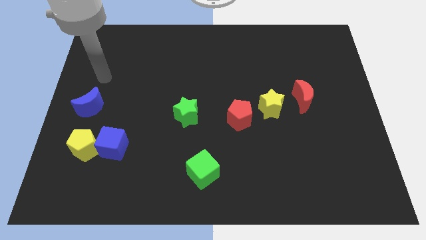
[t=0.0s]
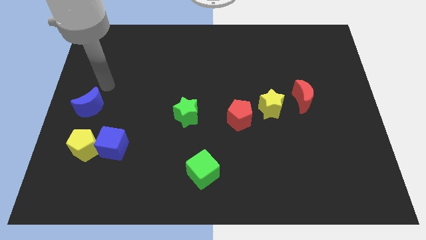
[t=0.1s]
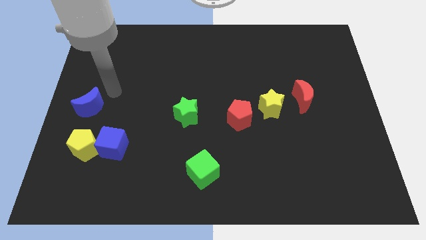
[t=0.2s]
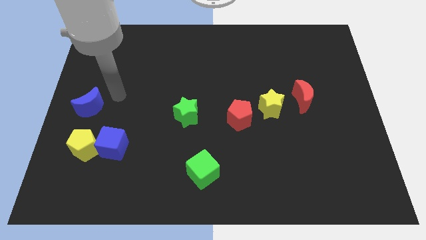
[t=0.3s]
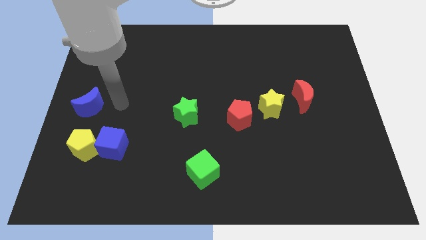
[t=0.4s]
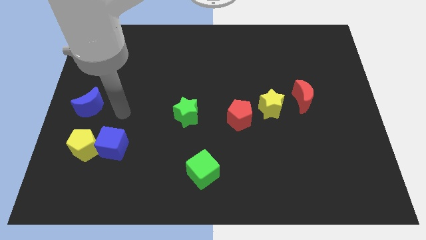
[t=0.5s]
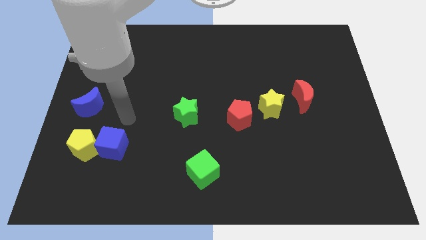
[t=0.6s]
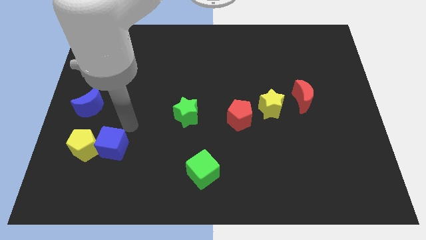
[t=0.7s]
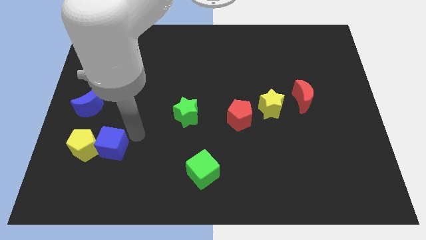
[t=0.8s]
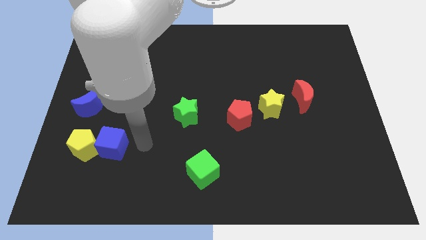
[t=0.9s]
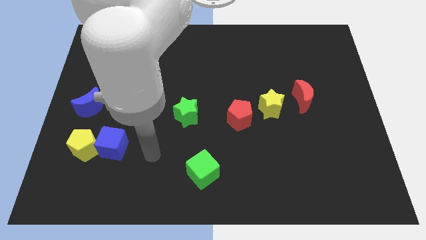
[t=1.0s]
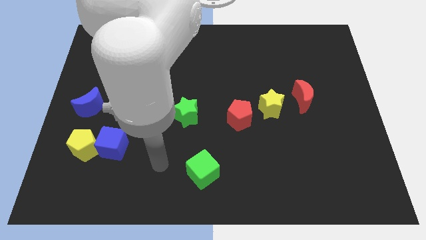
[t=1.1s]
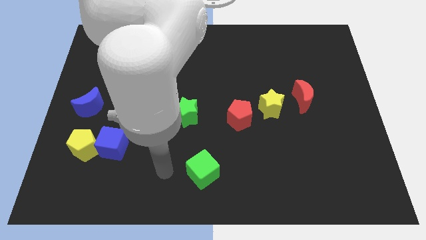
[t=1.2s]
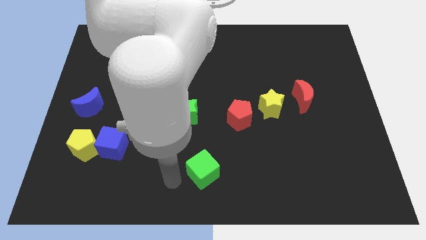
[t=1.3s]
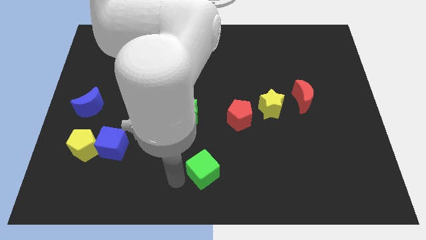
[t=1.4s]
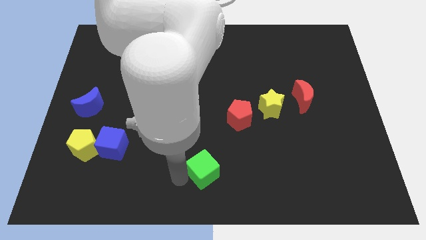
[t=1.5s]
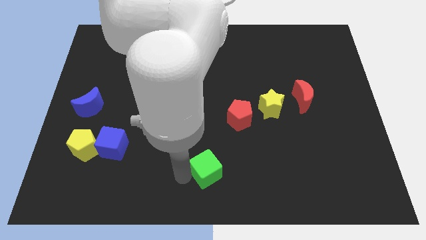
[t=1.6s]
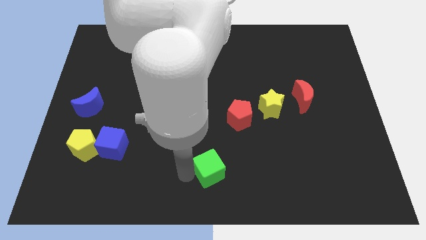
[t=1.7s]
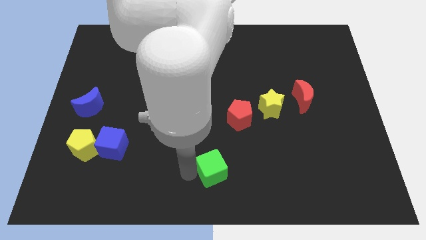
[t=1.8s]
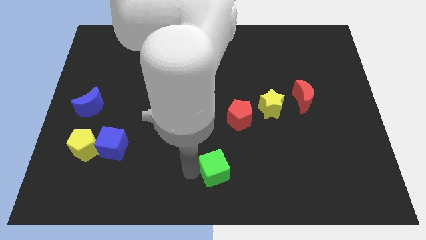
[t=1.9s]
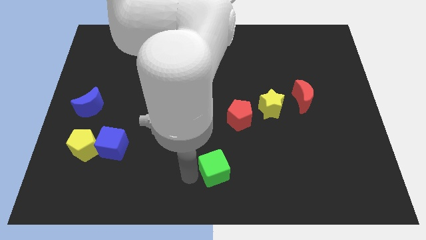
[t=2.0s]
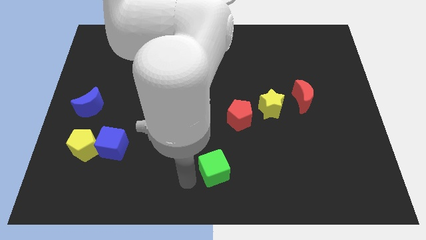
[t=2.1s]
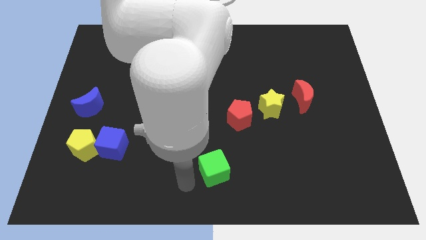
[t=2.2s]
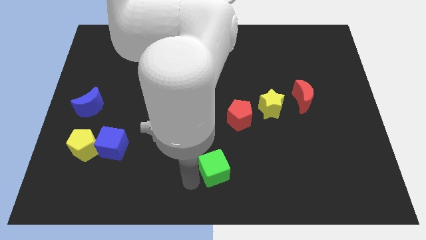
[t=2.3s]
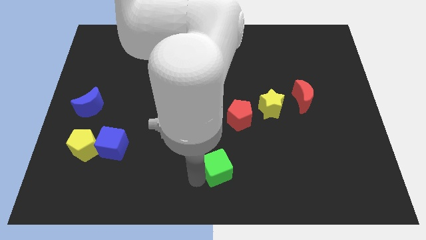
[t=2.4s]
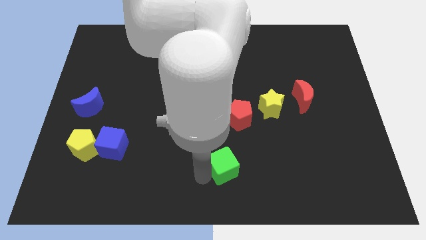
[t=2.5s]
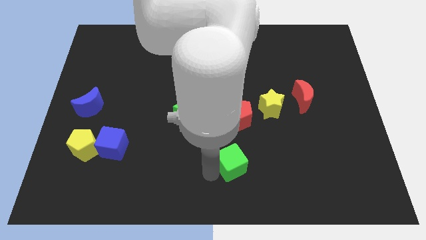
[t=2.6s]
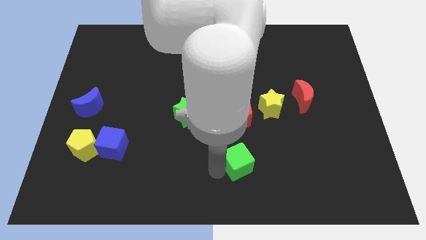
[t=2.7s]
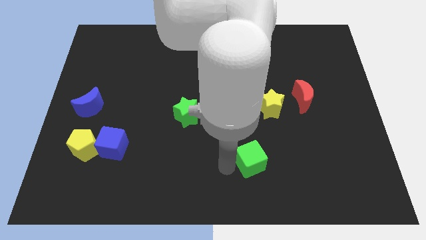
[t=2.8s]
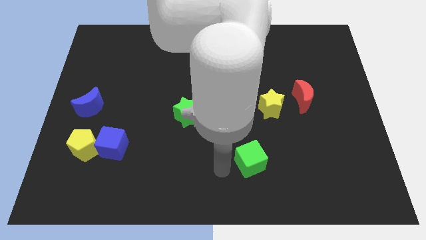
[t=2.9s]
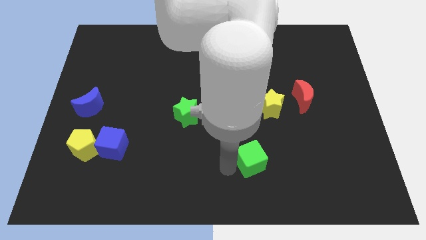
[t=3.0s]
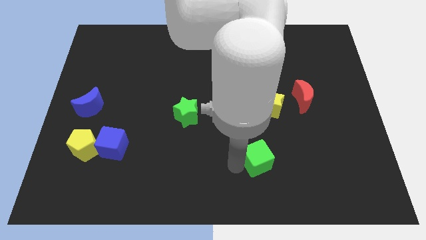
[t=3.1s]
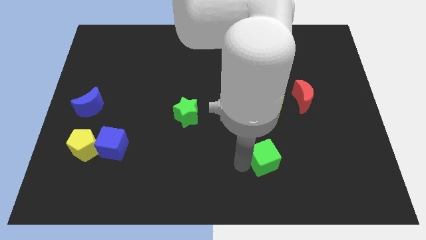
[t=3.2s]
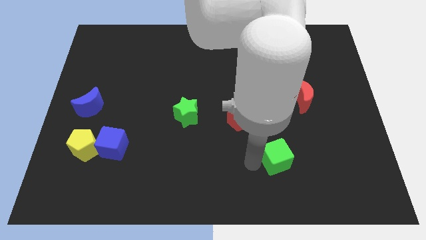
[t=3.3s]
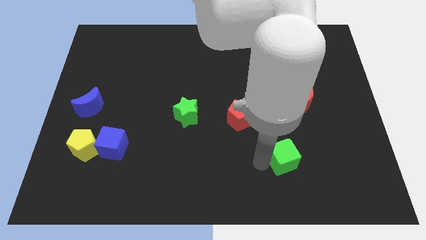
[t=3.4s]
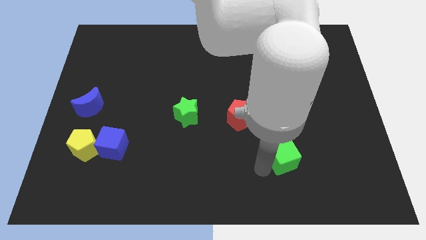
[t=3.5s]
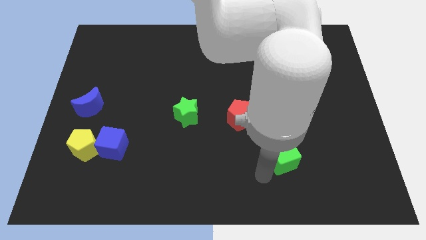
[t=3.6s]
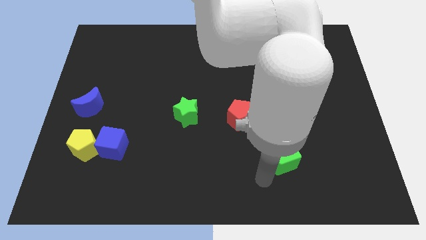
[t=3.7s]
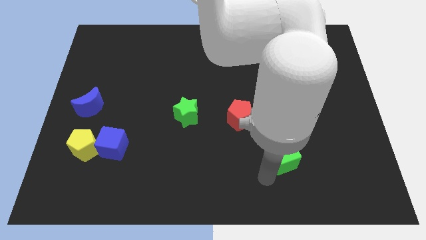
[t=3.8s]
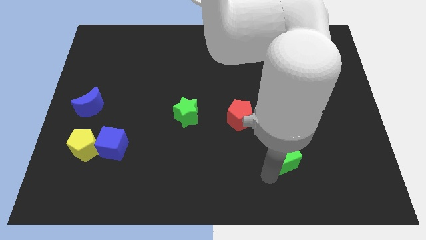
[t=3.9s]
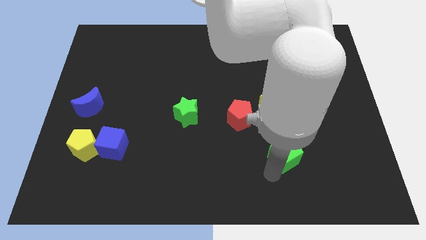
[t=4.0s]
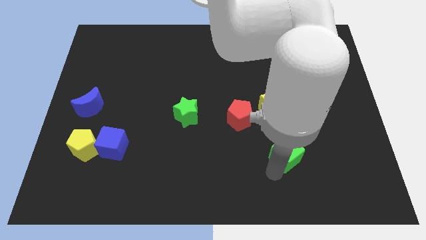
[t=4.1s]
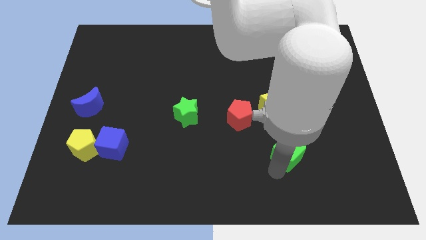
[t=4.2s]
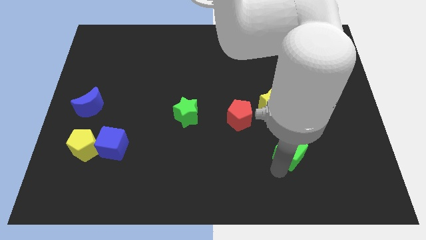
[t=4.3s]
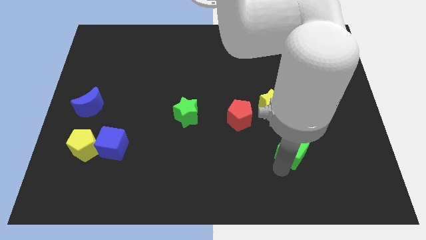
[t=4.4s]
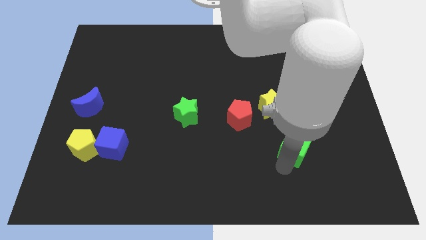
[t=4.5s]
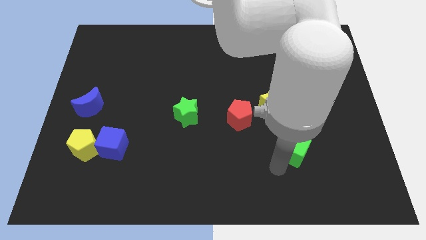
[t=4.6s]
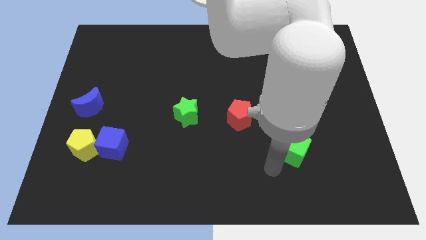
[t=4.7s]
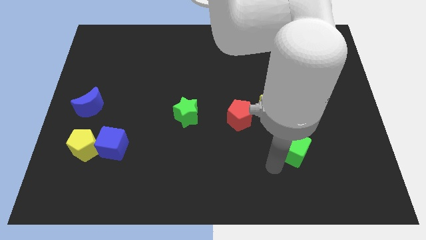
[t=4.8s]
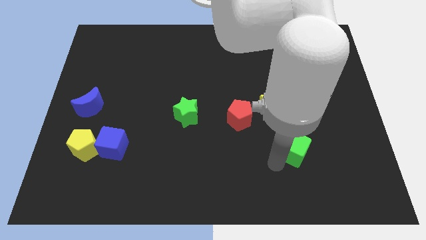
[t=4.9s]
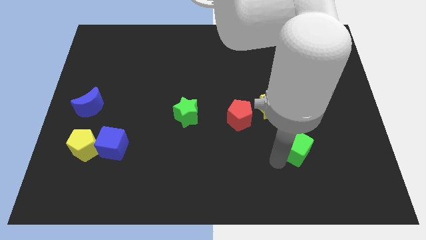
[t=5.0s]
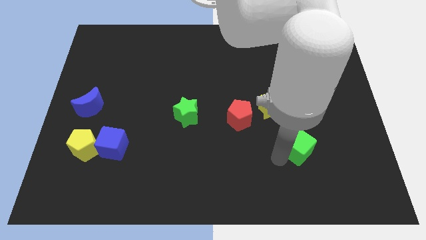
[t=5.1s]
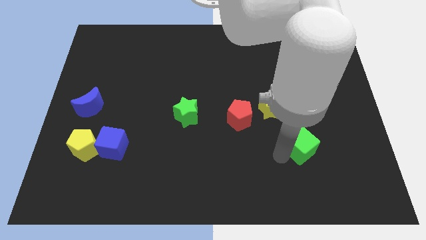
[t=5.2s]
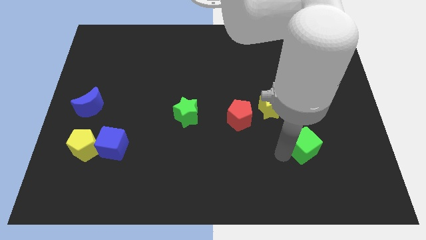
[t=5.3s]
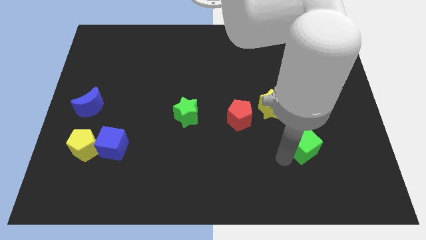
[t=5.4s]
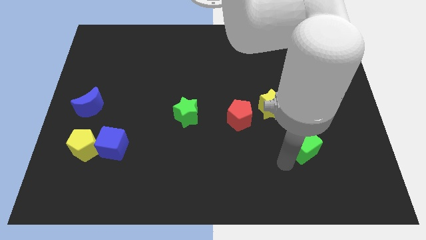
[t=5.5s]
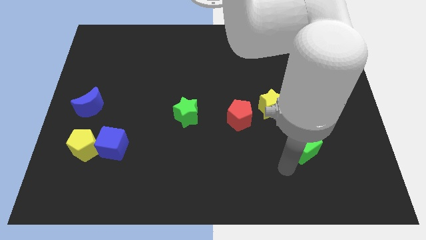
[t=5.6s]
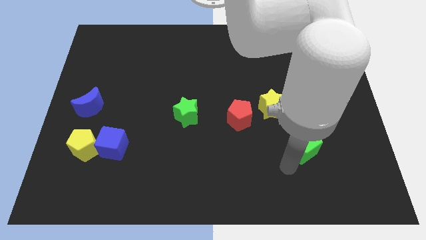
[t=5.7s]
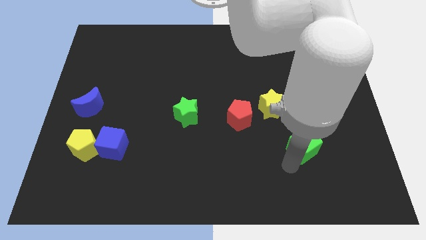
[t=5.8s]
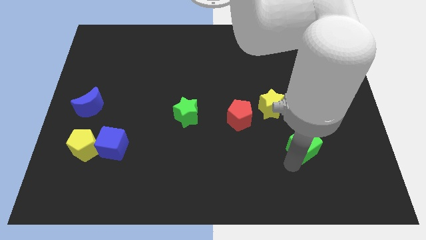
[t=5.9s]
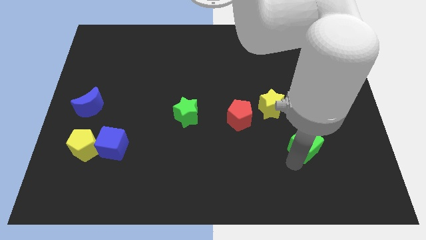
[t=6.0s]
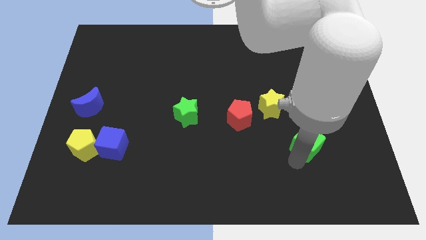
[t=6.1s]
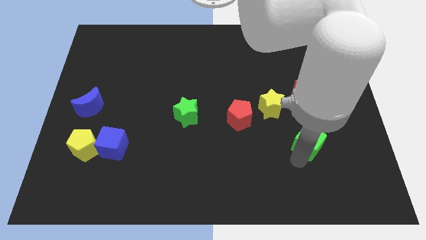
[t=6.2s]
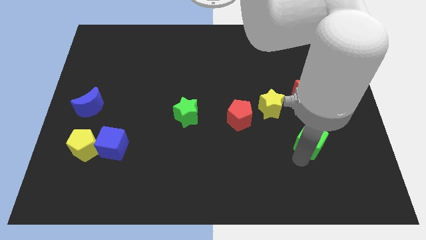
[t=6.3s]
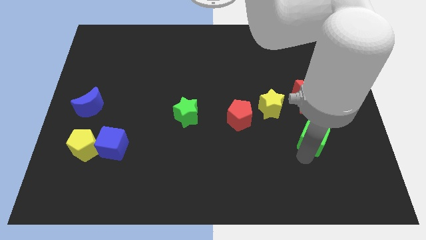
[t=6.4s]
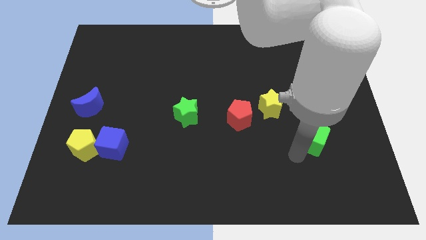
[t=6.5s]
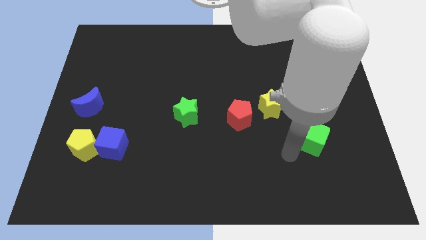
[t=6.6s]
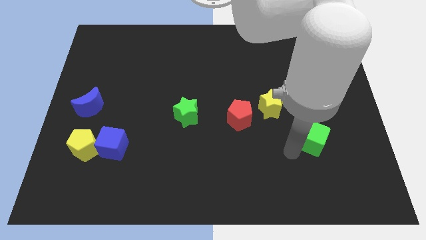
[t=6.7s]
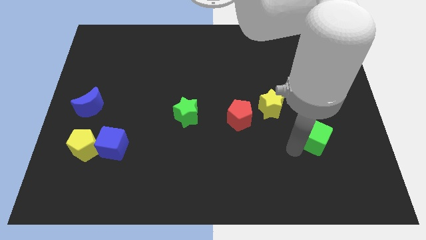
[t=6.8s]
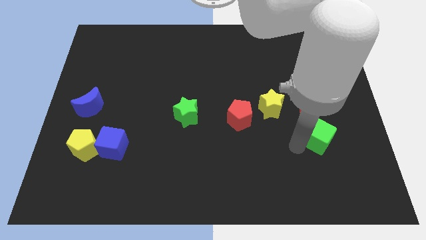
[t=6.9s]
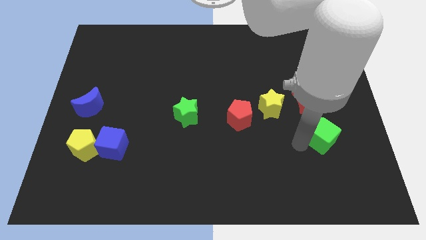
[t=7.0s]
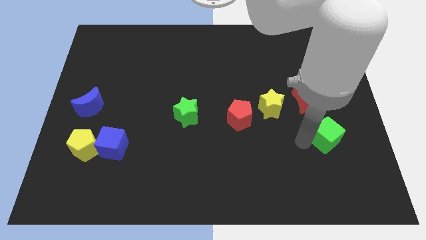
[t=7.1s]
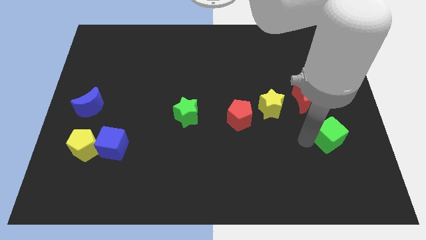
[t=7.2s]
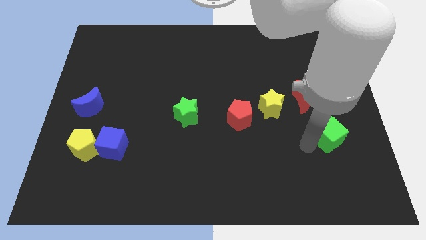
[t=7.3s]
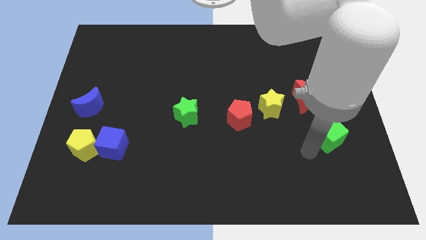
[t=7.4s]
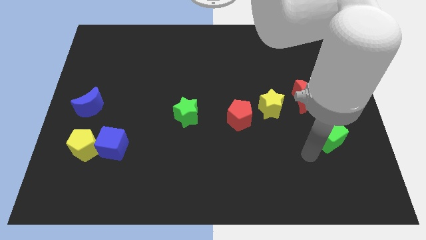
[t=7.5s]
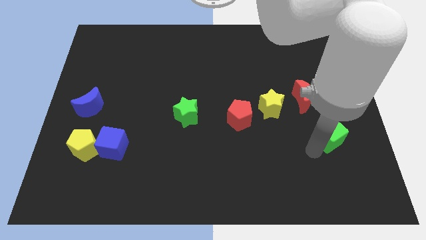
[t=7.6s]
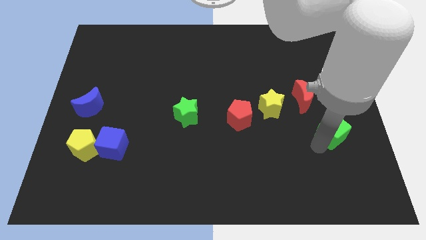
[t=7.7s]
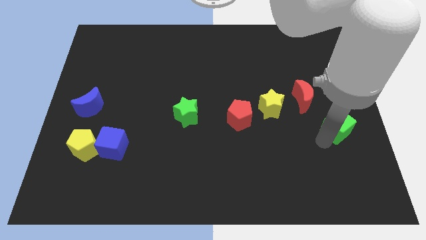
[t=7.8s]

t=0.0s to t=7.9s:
push the green cube to the center right
